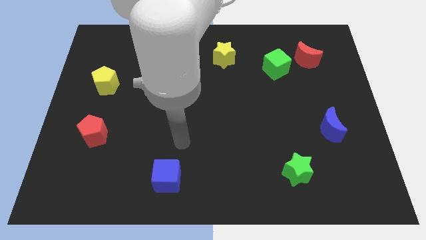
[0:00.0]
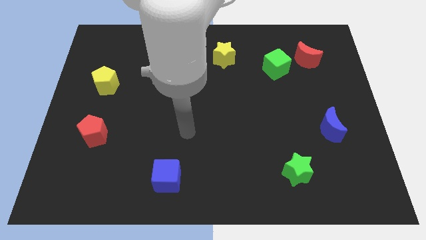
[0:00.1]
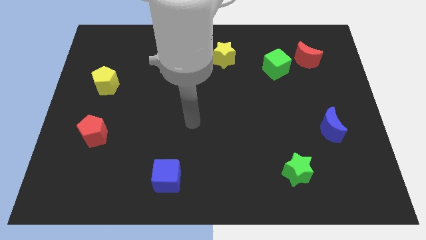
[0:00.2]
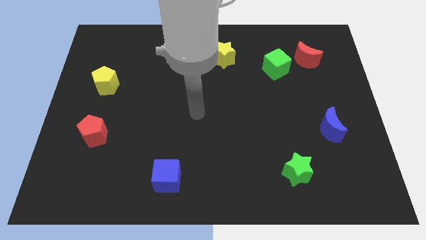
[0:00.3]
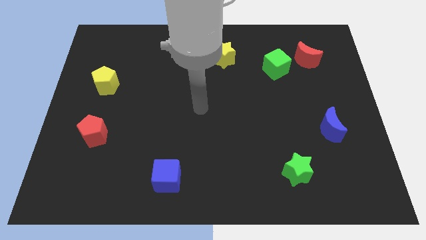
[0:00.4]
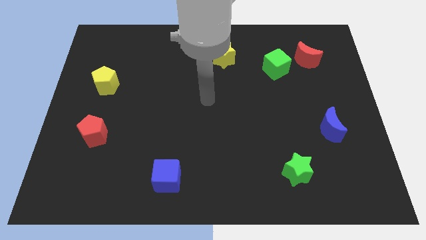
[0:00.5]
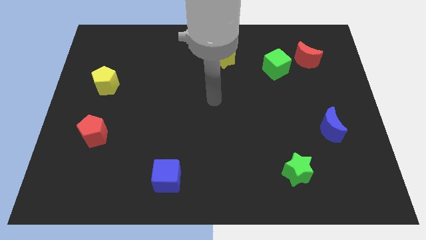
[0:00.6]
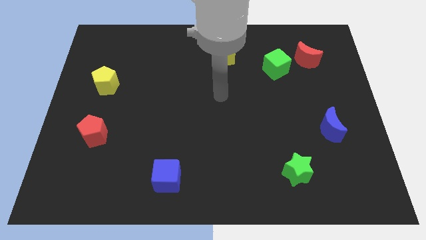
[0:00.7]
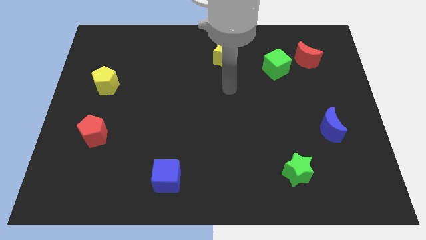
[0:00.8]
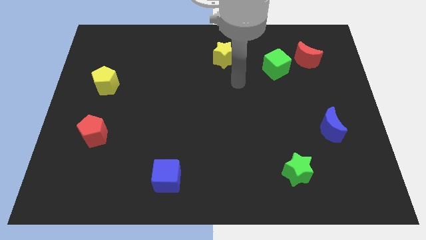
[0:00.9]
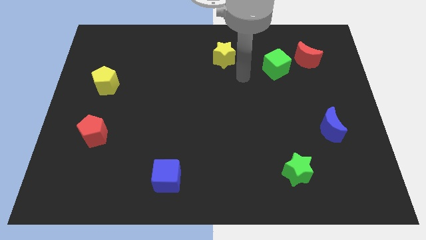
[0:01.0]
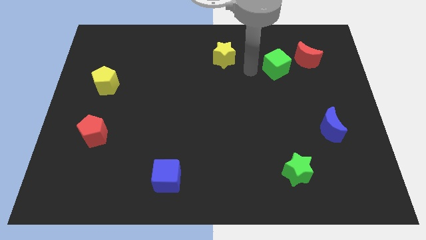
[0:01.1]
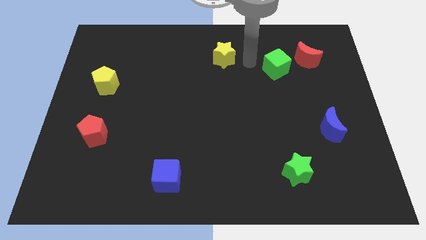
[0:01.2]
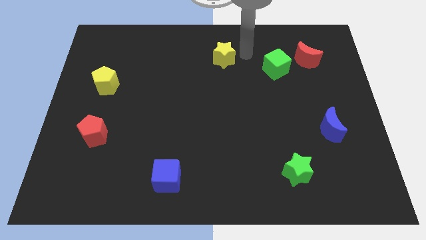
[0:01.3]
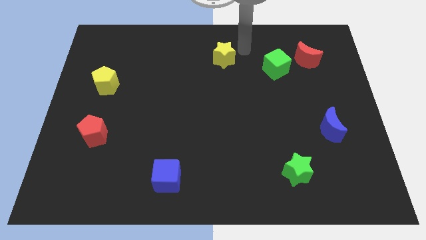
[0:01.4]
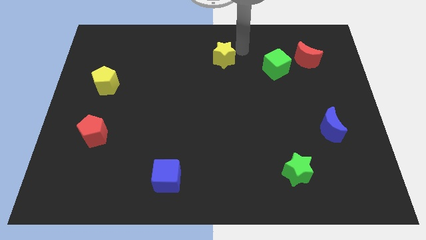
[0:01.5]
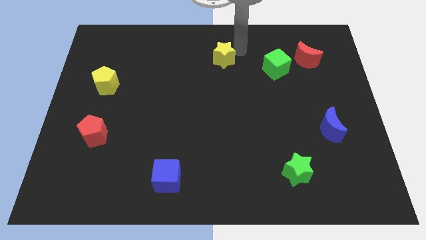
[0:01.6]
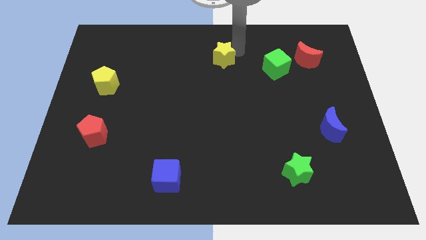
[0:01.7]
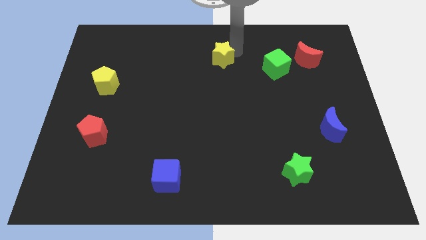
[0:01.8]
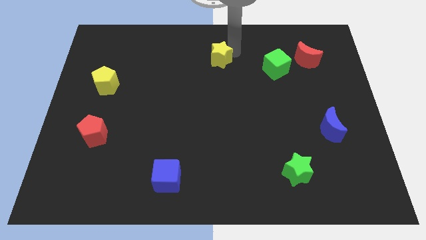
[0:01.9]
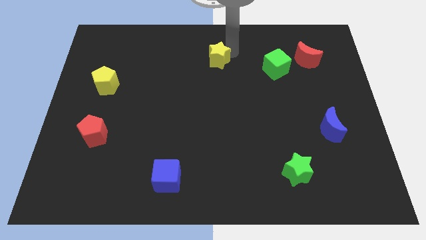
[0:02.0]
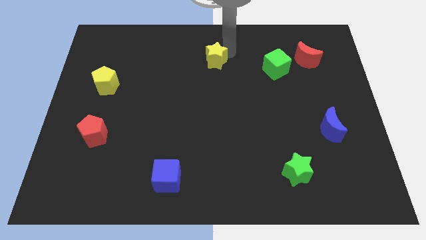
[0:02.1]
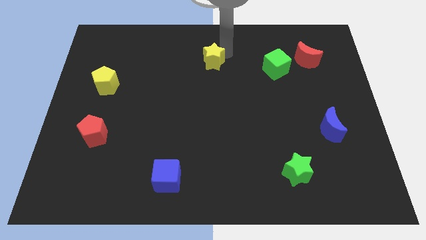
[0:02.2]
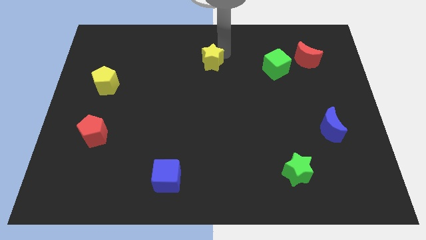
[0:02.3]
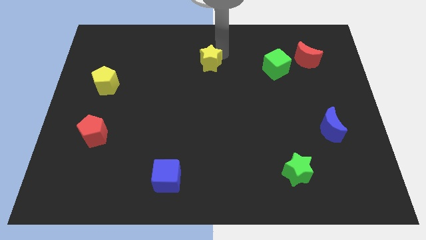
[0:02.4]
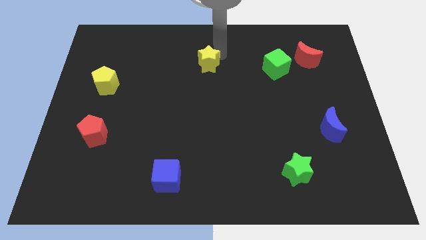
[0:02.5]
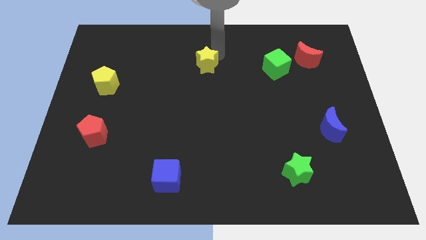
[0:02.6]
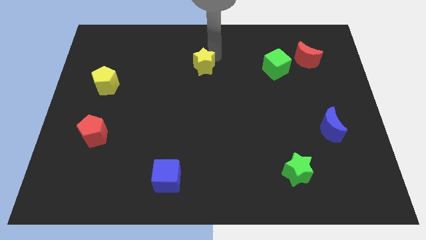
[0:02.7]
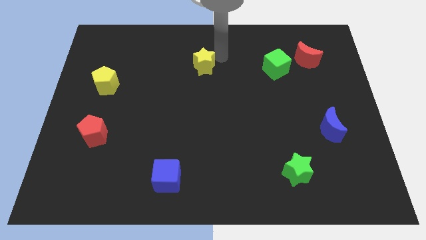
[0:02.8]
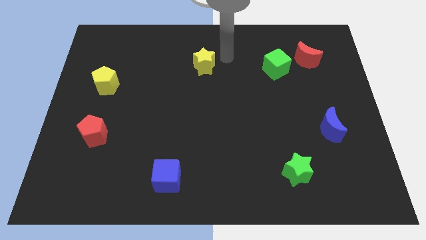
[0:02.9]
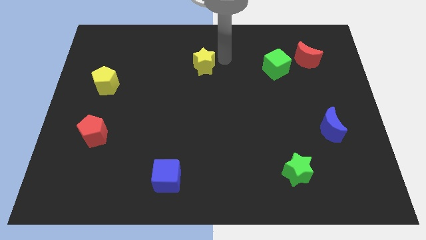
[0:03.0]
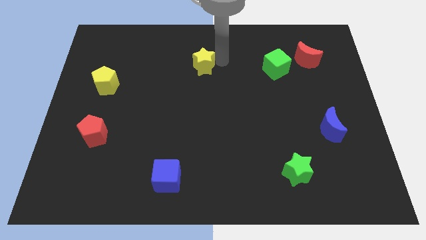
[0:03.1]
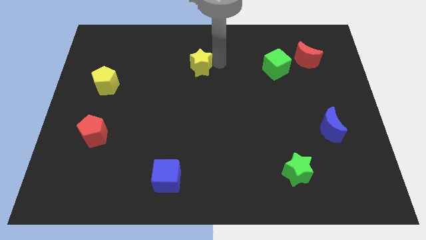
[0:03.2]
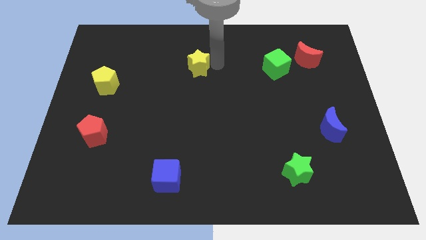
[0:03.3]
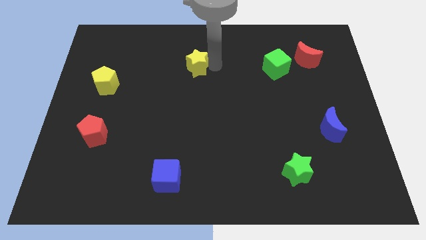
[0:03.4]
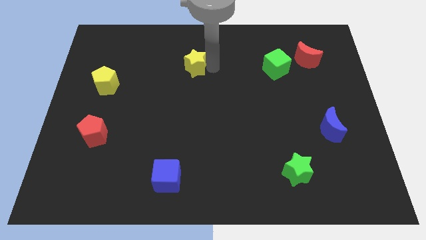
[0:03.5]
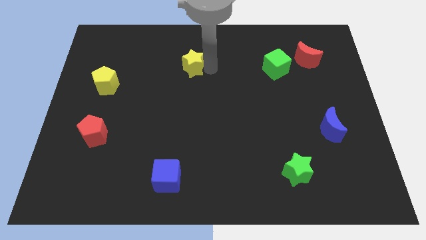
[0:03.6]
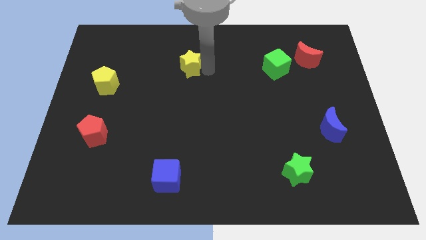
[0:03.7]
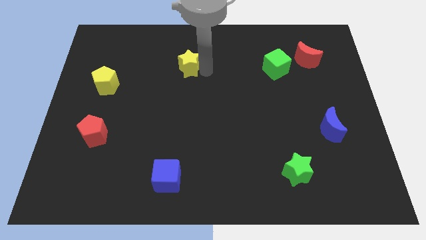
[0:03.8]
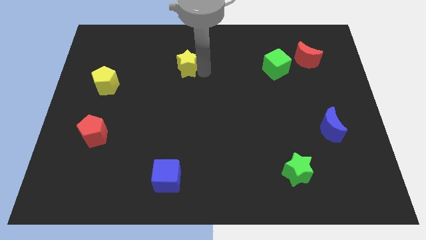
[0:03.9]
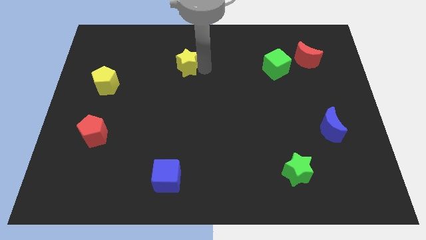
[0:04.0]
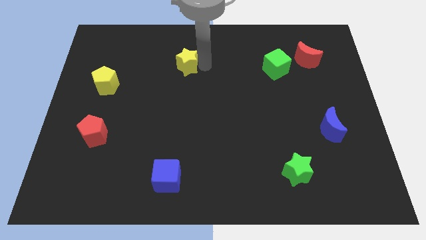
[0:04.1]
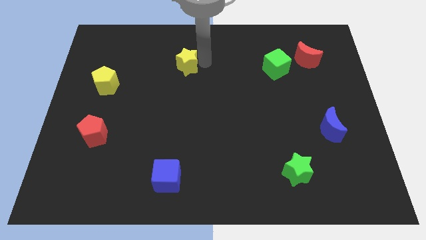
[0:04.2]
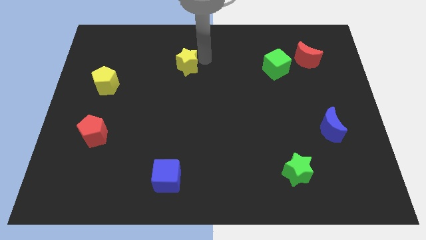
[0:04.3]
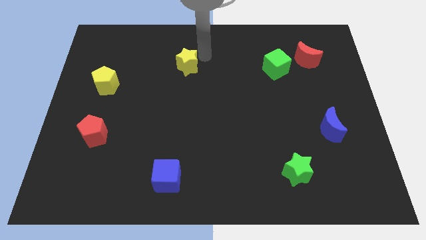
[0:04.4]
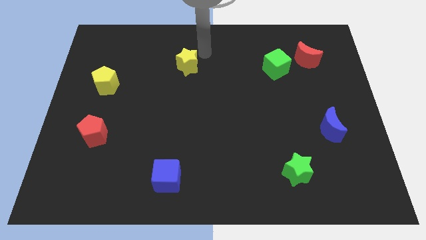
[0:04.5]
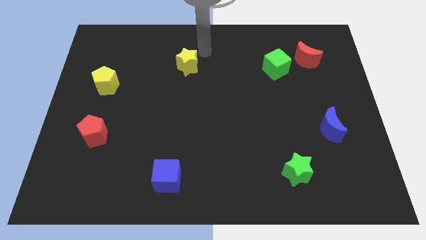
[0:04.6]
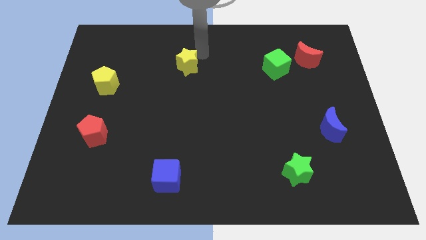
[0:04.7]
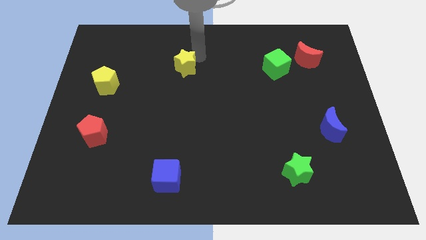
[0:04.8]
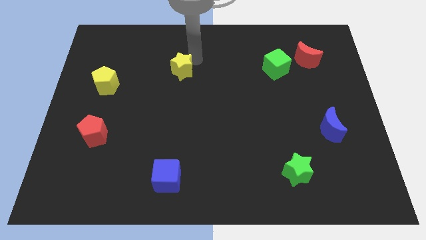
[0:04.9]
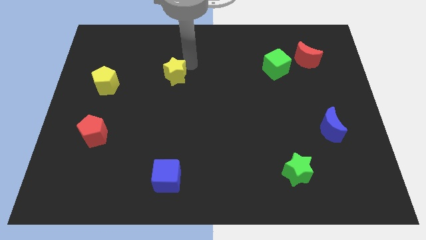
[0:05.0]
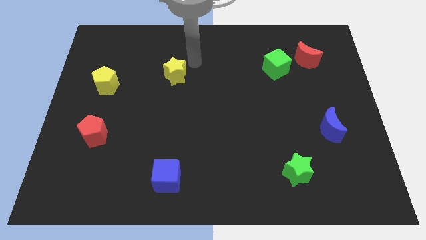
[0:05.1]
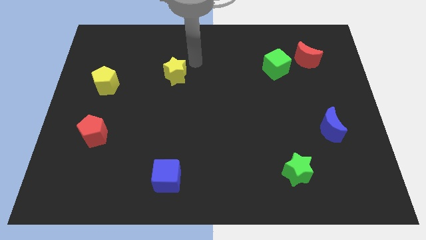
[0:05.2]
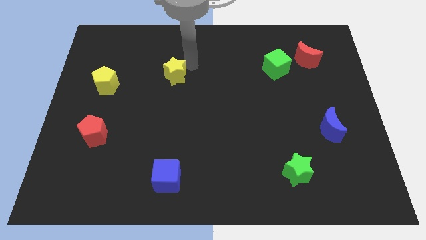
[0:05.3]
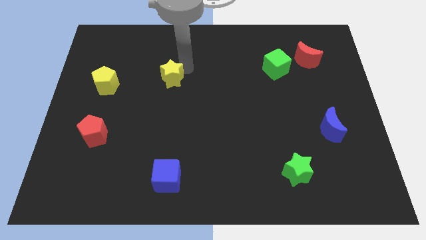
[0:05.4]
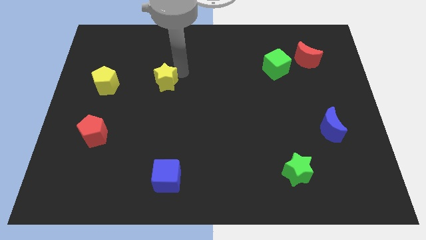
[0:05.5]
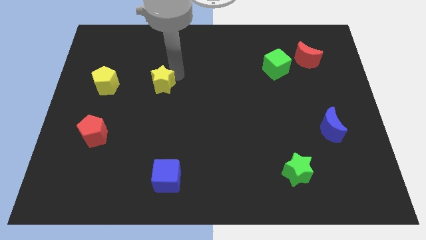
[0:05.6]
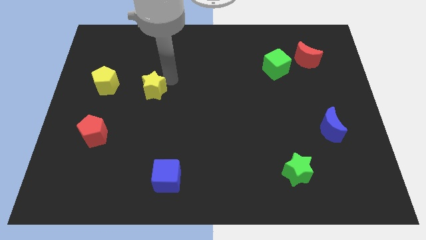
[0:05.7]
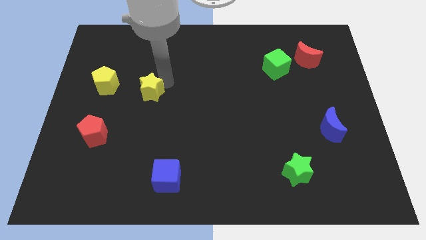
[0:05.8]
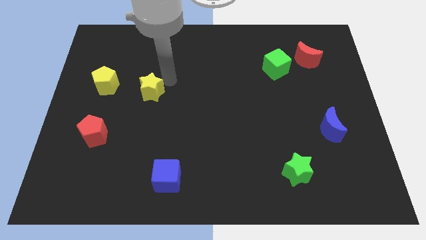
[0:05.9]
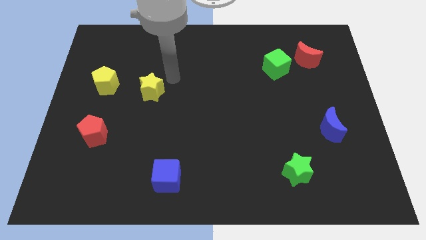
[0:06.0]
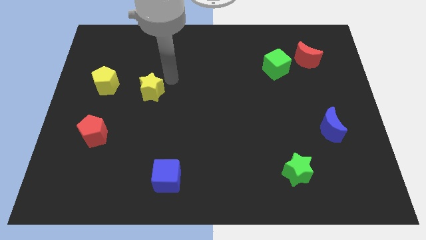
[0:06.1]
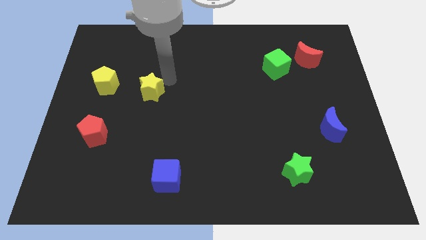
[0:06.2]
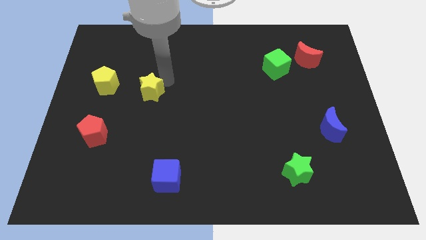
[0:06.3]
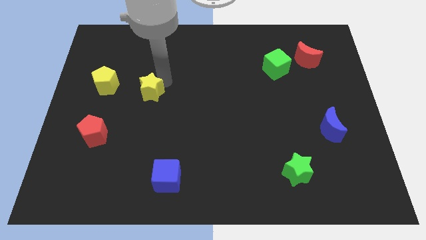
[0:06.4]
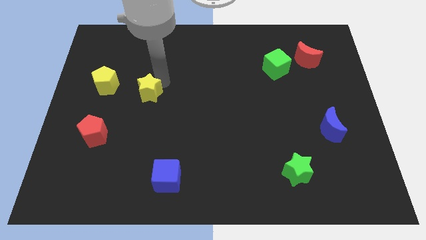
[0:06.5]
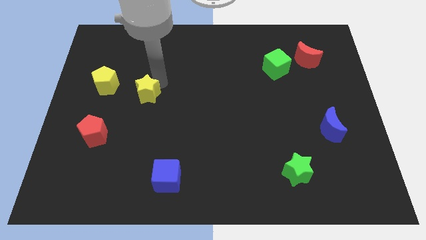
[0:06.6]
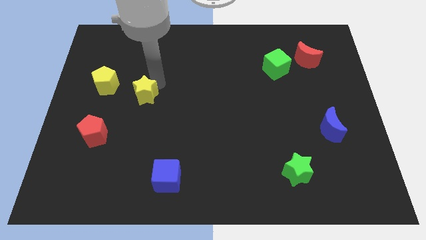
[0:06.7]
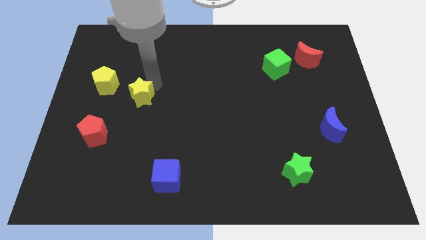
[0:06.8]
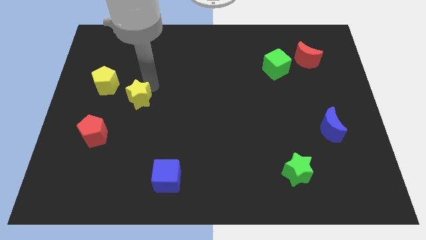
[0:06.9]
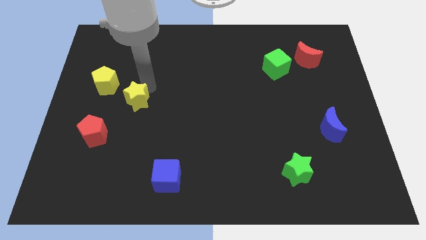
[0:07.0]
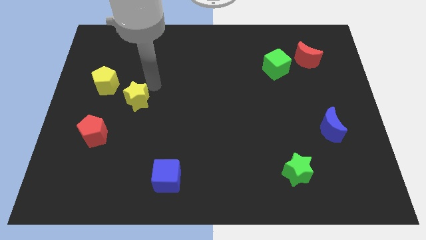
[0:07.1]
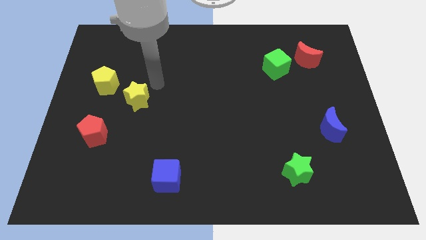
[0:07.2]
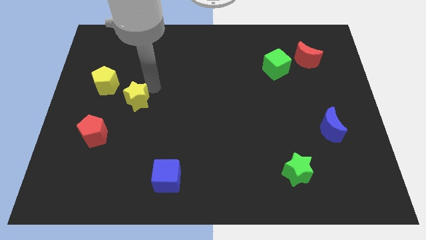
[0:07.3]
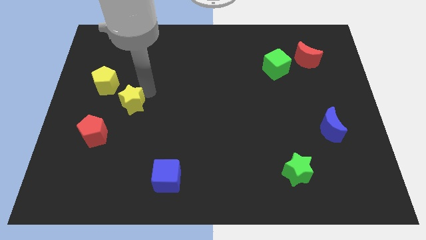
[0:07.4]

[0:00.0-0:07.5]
move the yellow star diagonally up and to the right of the red pentagon
